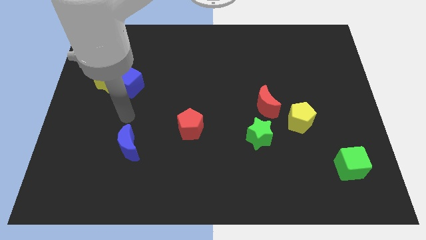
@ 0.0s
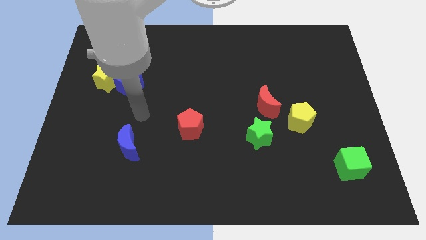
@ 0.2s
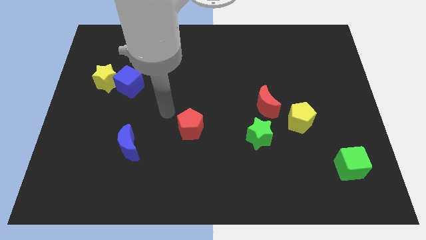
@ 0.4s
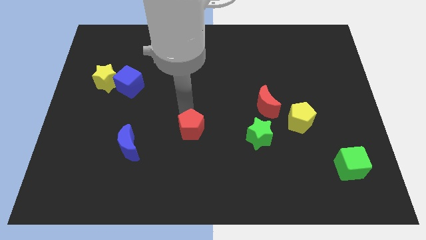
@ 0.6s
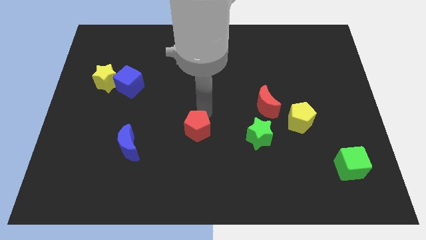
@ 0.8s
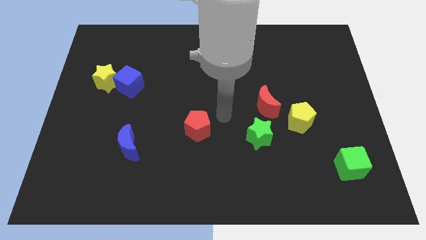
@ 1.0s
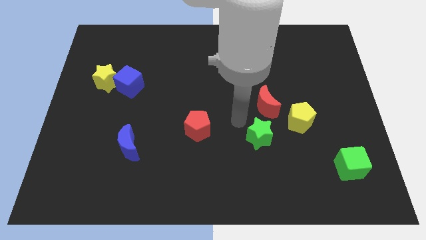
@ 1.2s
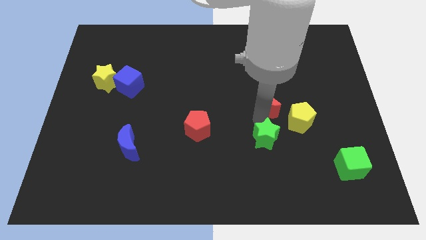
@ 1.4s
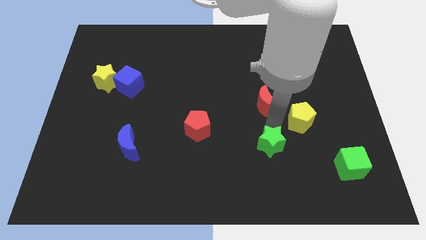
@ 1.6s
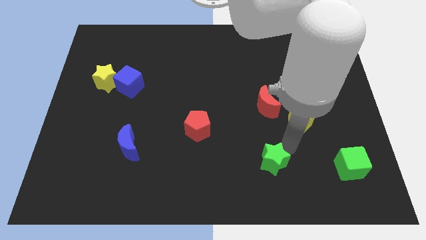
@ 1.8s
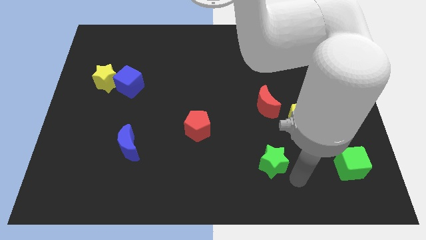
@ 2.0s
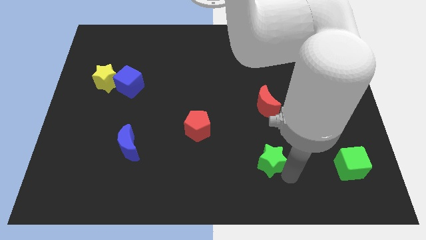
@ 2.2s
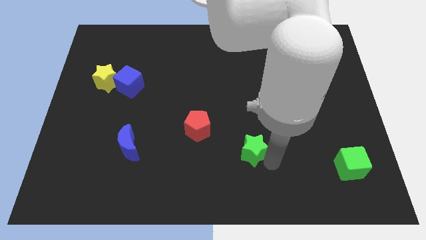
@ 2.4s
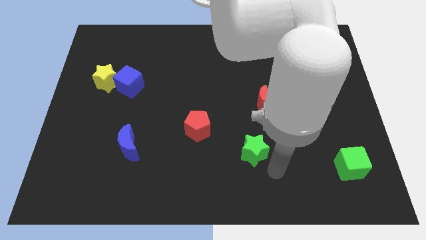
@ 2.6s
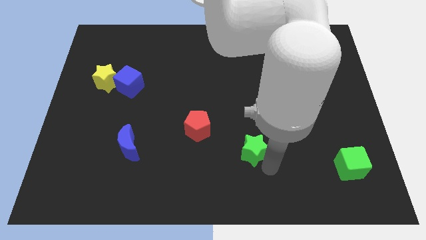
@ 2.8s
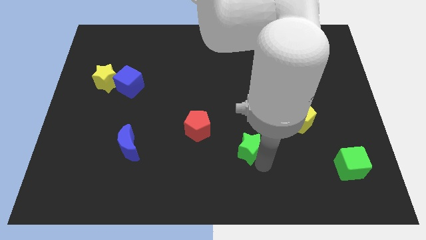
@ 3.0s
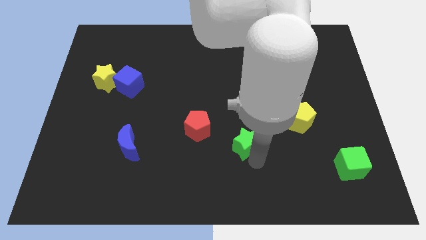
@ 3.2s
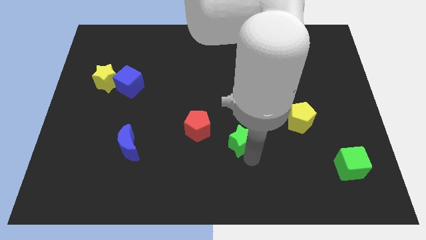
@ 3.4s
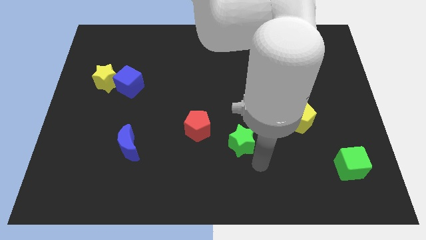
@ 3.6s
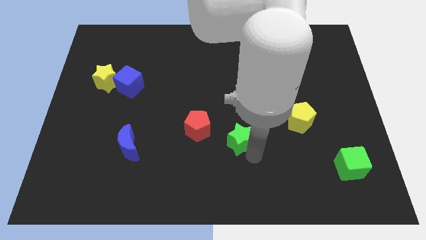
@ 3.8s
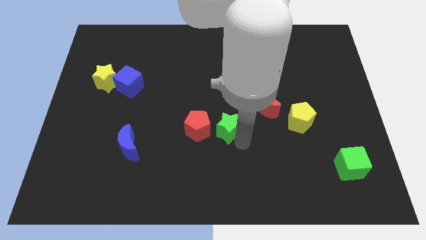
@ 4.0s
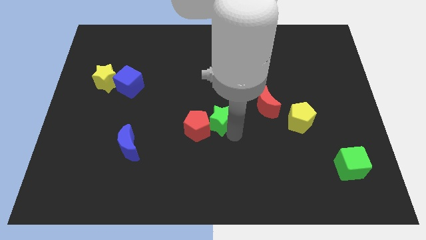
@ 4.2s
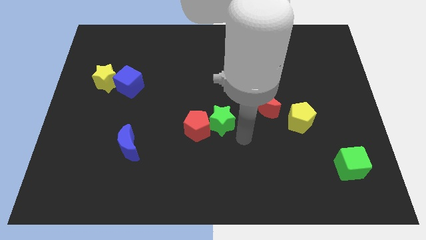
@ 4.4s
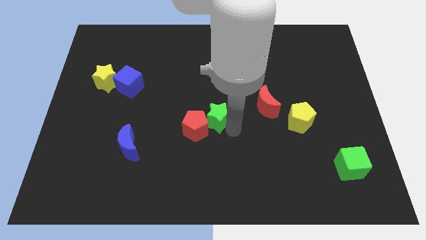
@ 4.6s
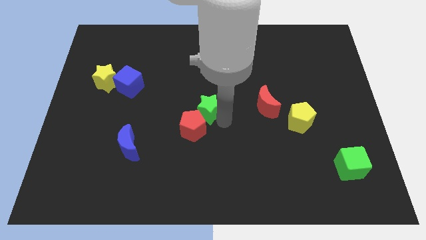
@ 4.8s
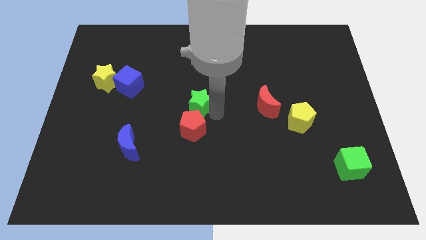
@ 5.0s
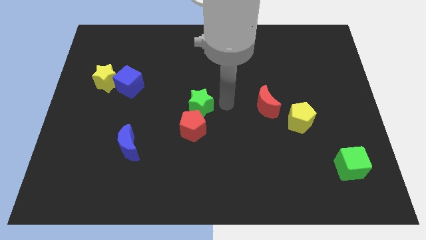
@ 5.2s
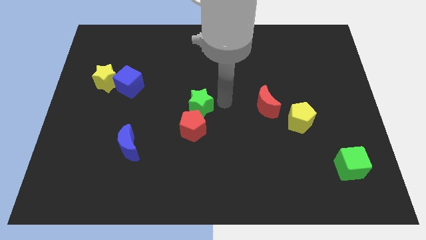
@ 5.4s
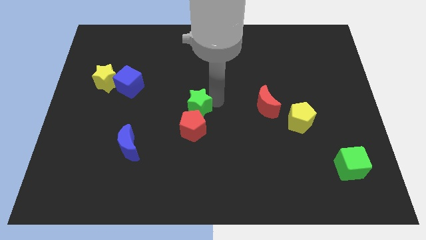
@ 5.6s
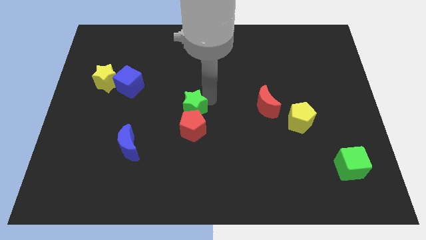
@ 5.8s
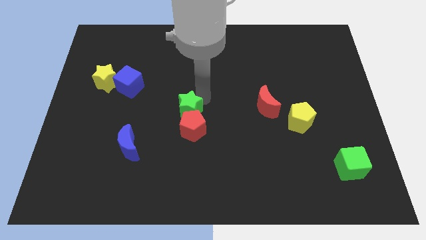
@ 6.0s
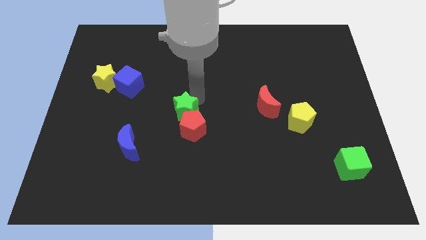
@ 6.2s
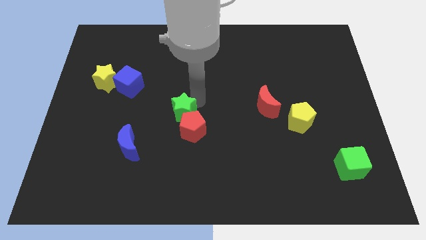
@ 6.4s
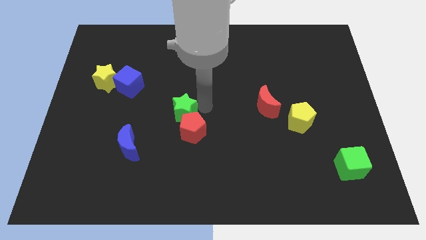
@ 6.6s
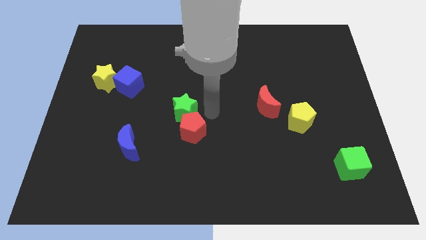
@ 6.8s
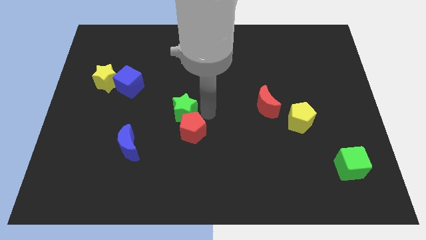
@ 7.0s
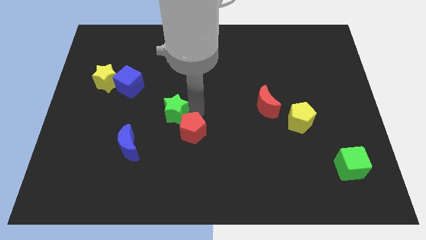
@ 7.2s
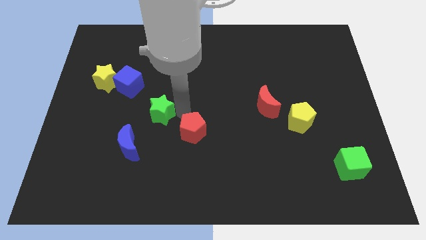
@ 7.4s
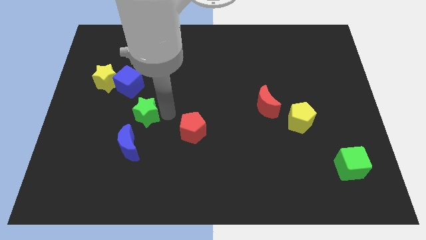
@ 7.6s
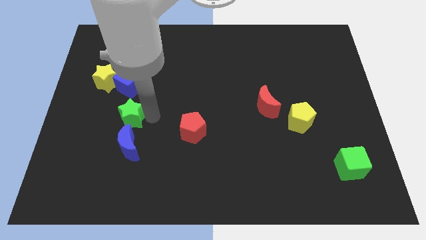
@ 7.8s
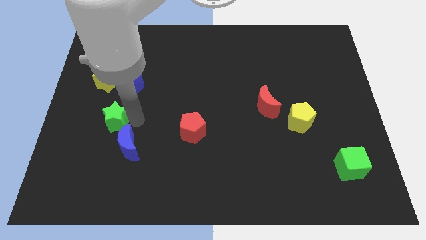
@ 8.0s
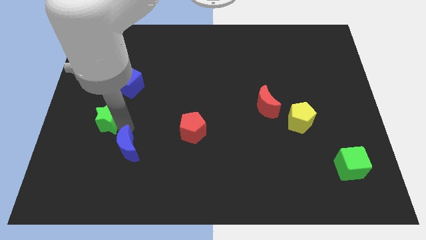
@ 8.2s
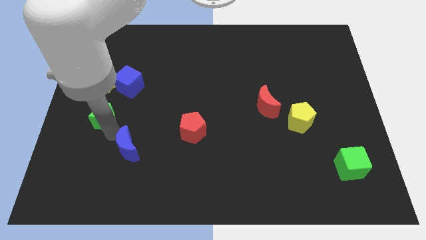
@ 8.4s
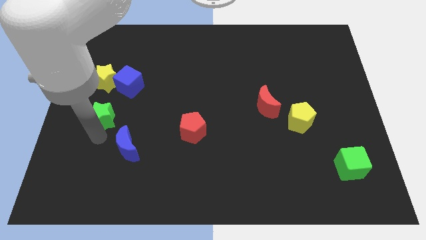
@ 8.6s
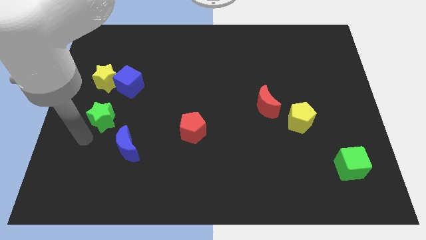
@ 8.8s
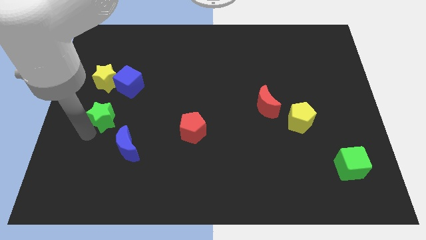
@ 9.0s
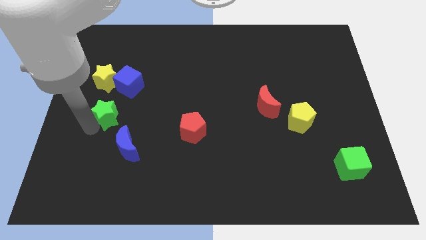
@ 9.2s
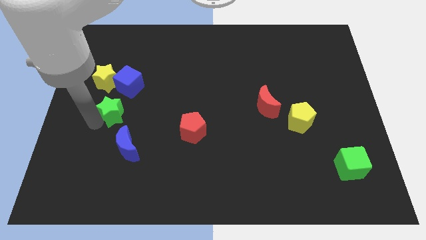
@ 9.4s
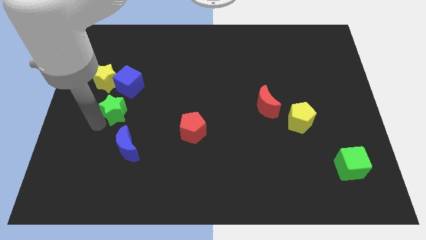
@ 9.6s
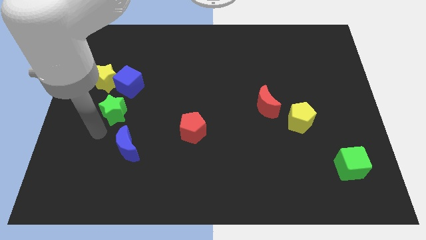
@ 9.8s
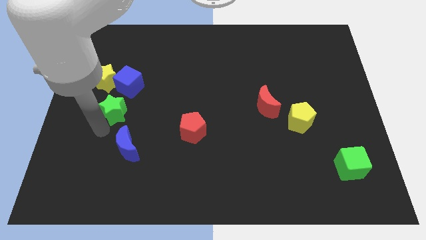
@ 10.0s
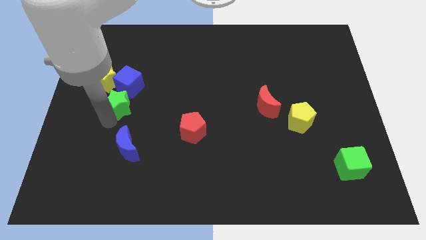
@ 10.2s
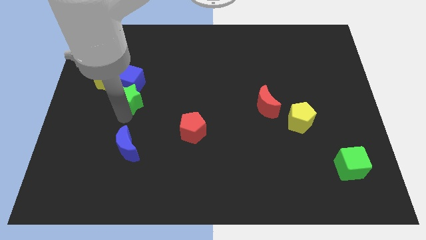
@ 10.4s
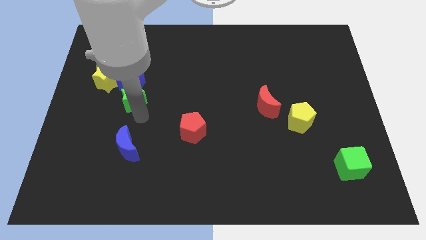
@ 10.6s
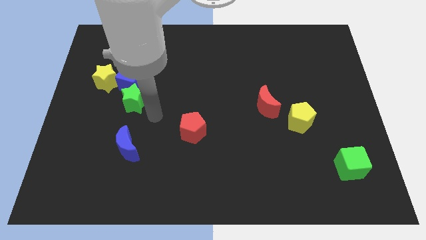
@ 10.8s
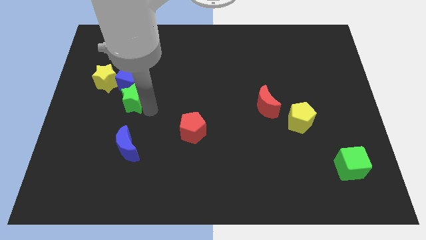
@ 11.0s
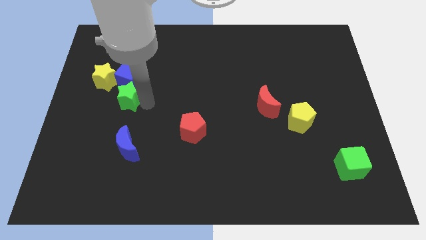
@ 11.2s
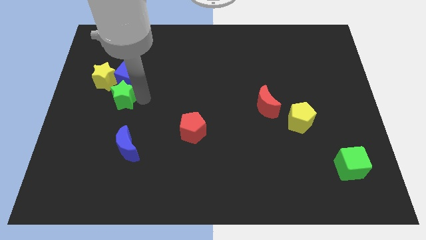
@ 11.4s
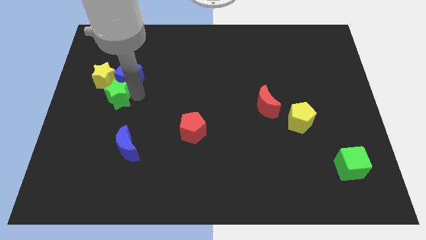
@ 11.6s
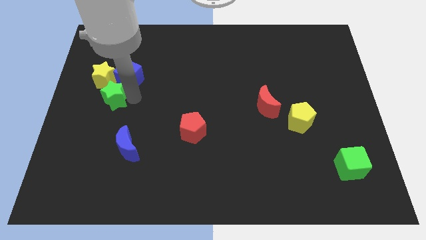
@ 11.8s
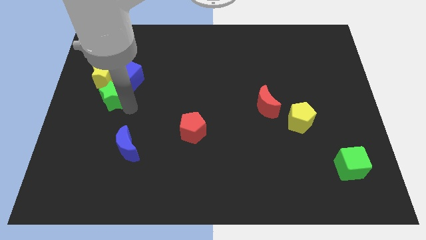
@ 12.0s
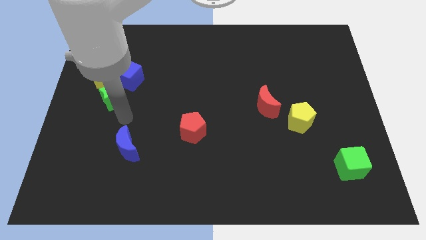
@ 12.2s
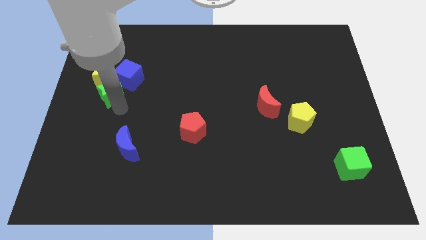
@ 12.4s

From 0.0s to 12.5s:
move the green star next to the yellow star
